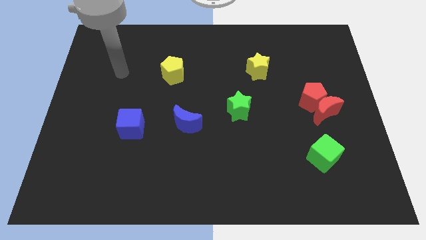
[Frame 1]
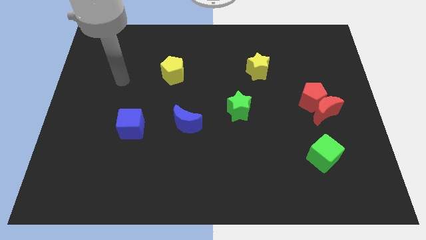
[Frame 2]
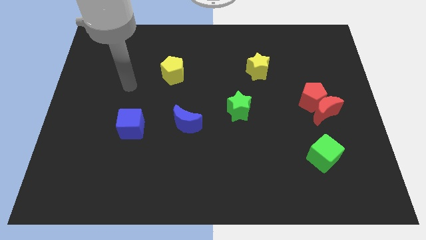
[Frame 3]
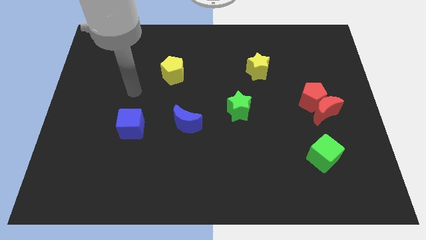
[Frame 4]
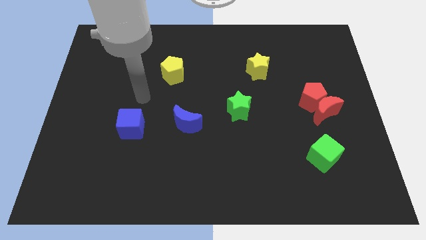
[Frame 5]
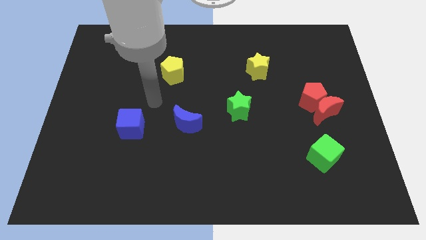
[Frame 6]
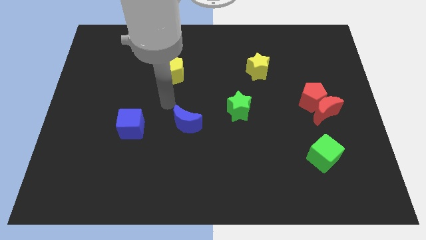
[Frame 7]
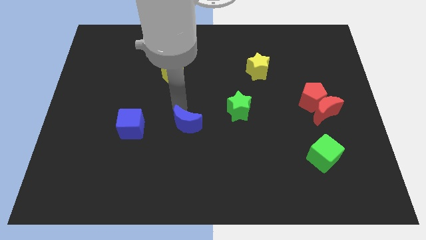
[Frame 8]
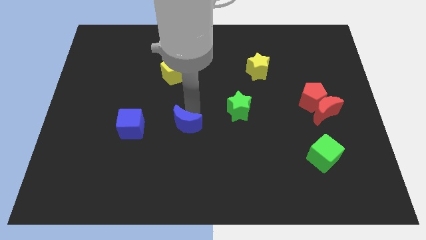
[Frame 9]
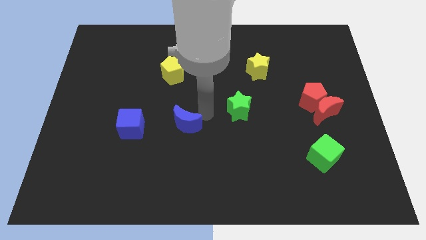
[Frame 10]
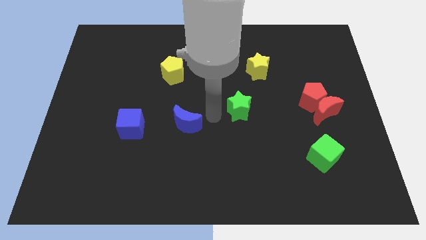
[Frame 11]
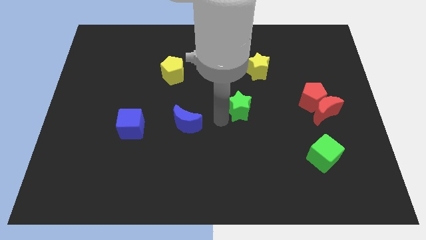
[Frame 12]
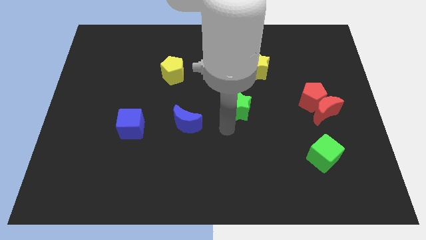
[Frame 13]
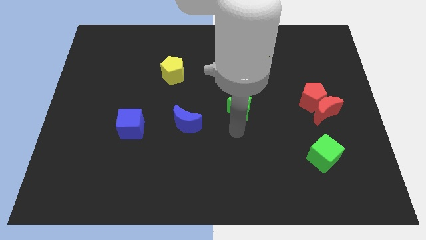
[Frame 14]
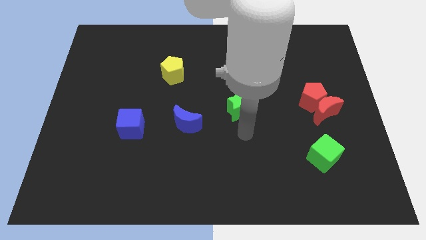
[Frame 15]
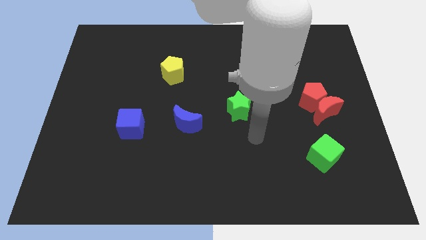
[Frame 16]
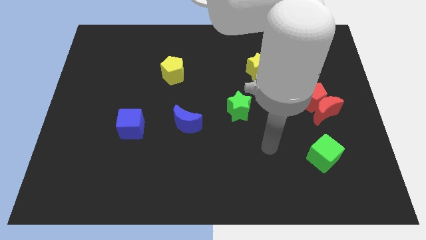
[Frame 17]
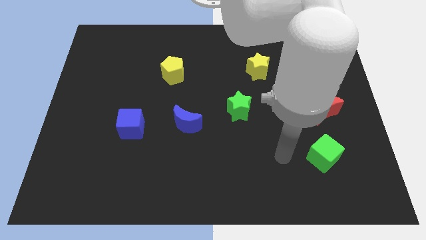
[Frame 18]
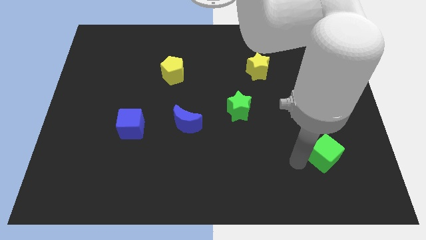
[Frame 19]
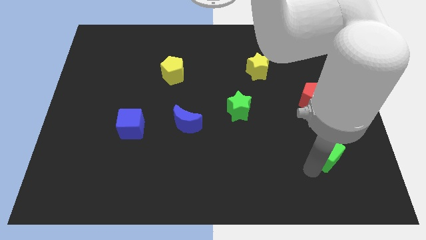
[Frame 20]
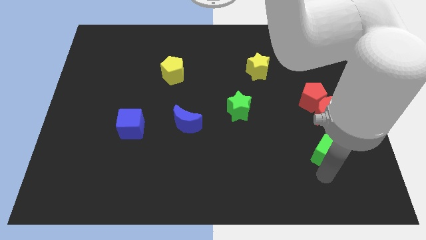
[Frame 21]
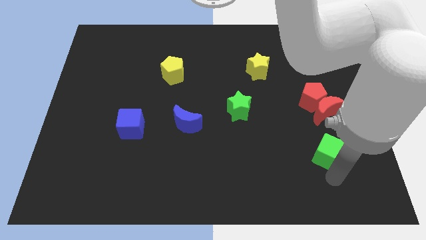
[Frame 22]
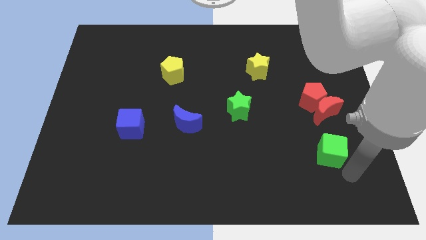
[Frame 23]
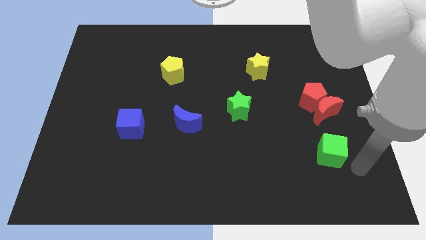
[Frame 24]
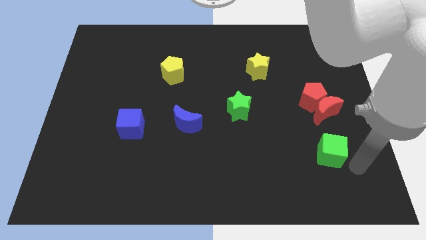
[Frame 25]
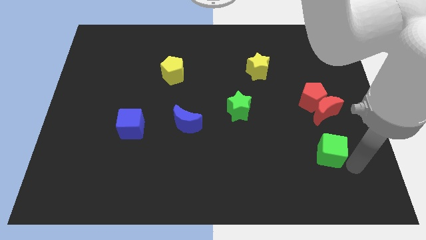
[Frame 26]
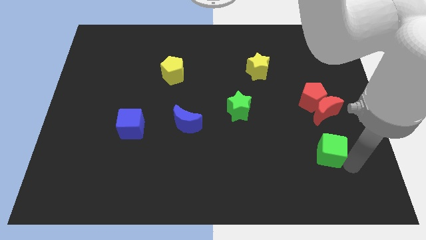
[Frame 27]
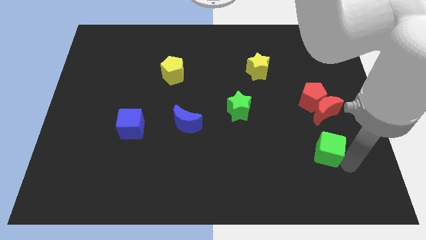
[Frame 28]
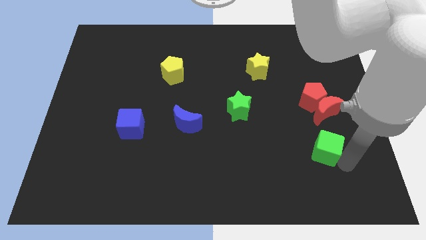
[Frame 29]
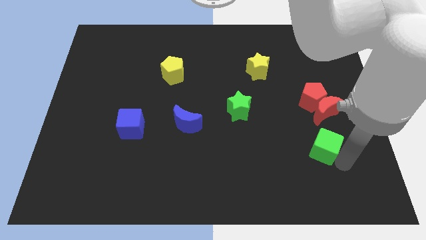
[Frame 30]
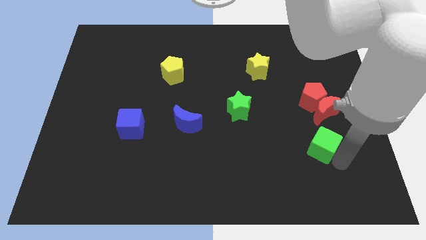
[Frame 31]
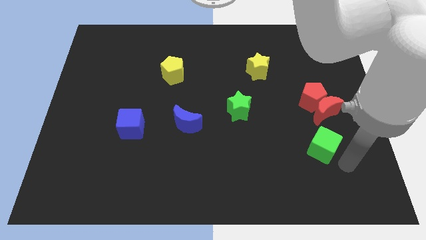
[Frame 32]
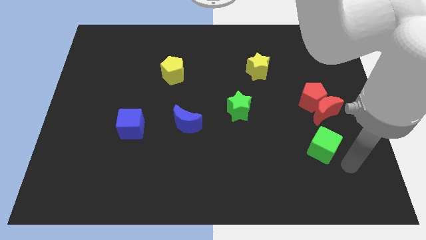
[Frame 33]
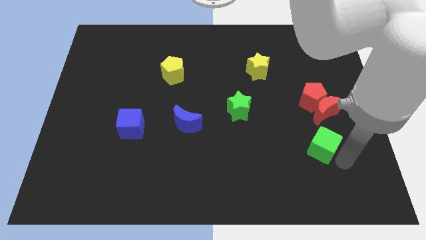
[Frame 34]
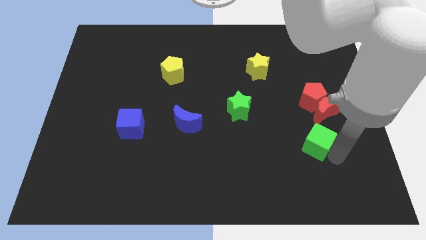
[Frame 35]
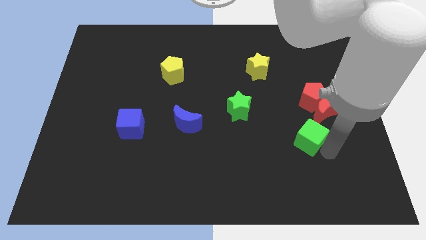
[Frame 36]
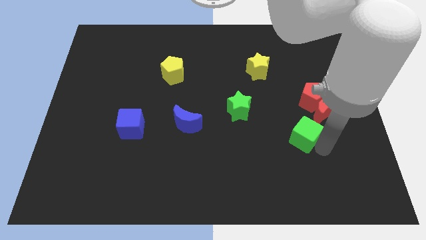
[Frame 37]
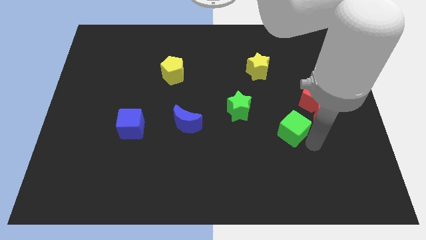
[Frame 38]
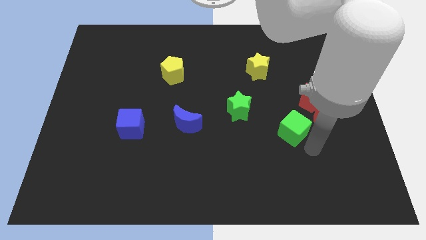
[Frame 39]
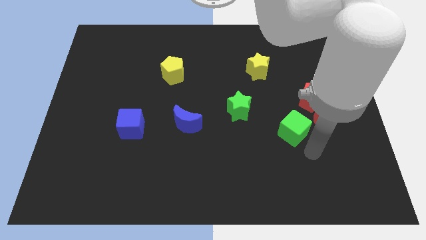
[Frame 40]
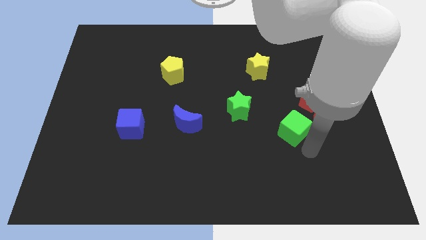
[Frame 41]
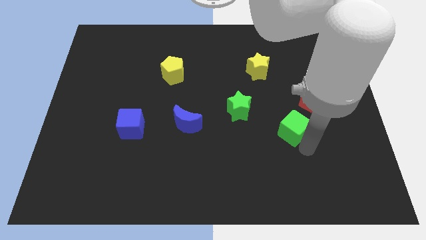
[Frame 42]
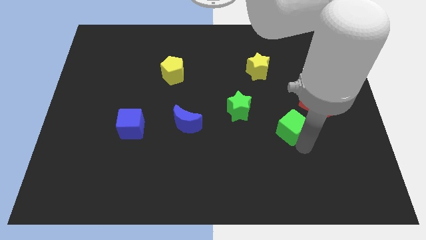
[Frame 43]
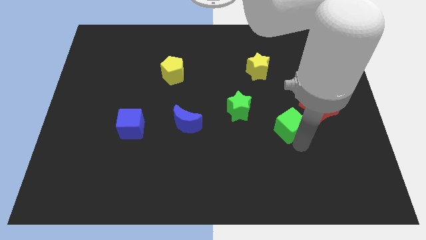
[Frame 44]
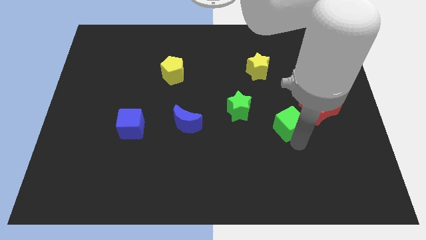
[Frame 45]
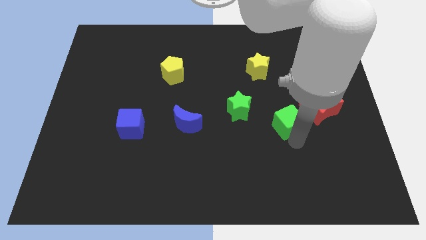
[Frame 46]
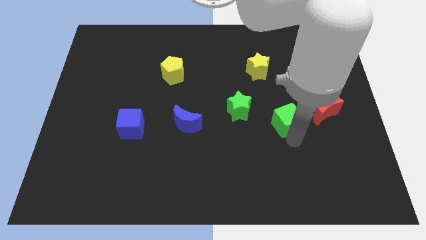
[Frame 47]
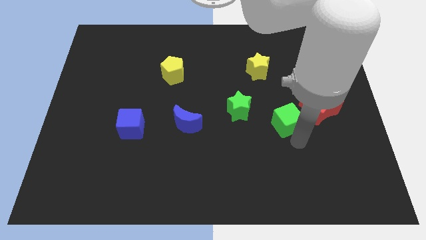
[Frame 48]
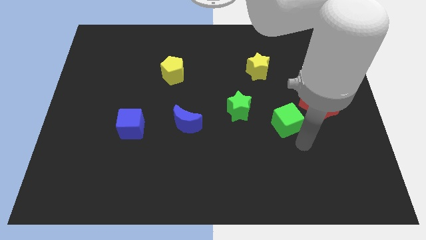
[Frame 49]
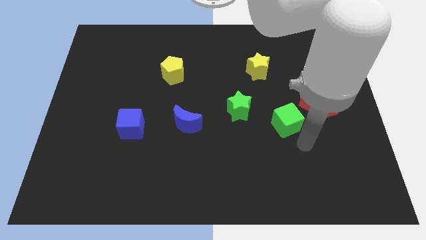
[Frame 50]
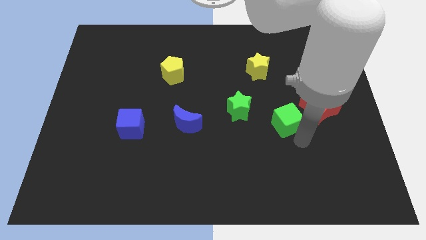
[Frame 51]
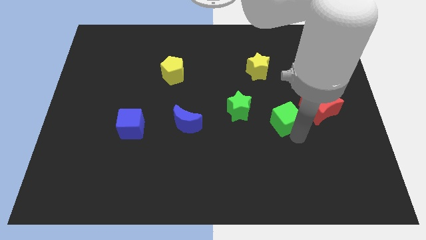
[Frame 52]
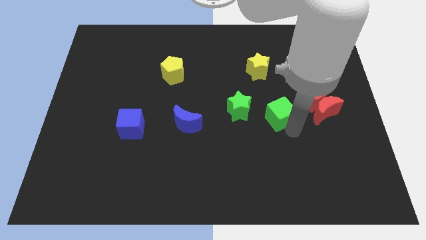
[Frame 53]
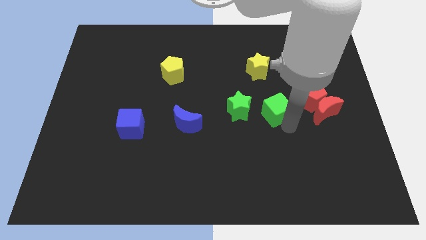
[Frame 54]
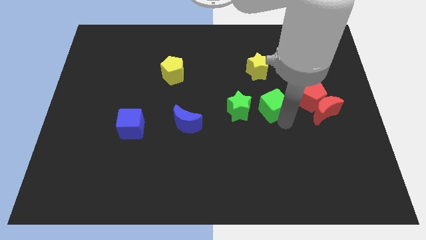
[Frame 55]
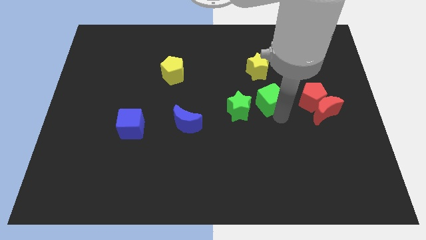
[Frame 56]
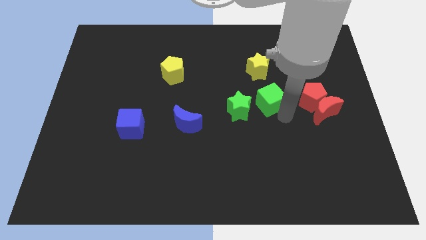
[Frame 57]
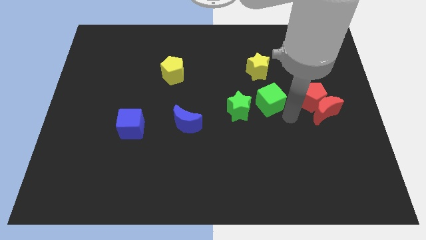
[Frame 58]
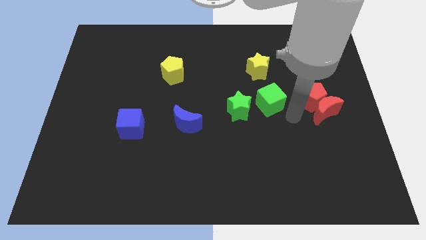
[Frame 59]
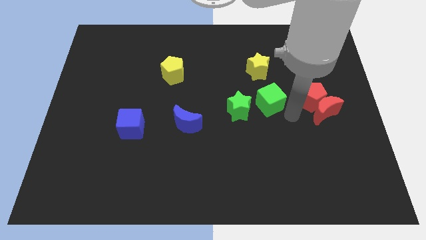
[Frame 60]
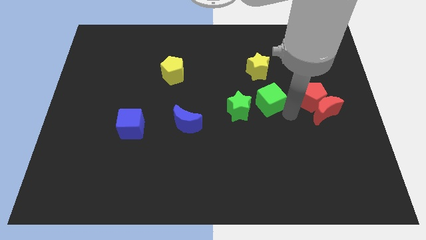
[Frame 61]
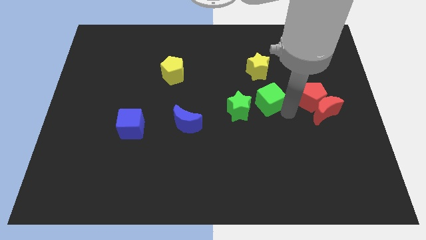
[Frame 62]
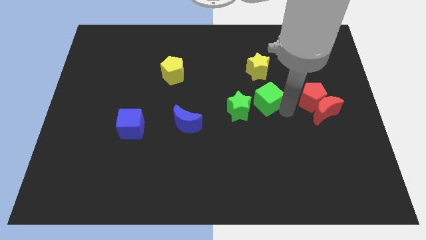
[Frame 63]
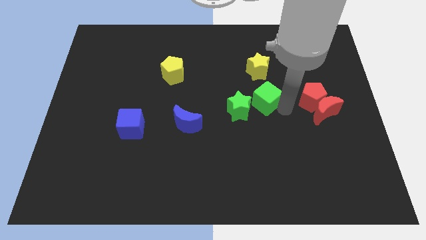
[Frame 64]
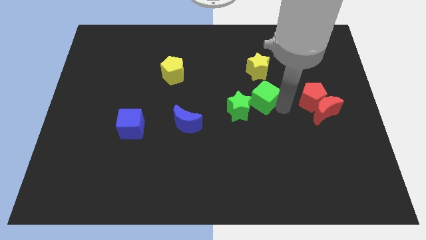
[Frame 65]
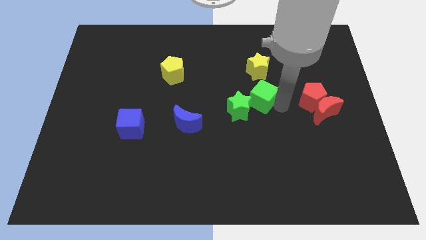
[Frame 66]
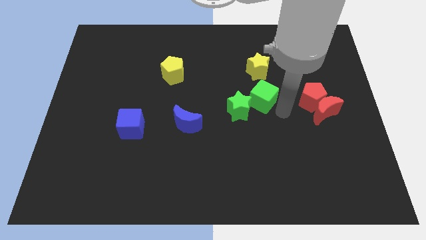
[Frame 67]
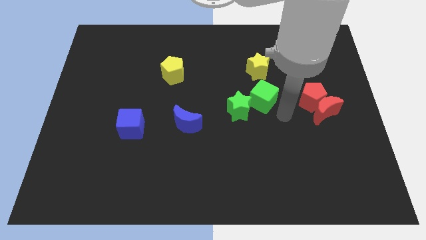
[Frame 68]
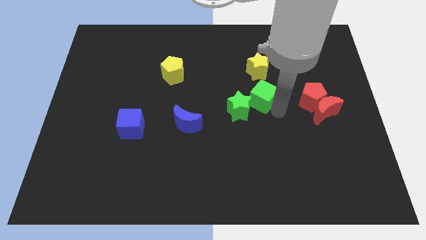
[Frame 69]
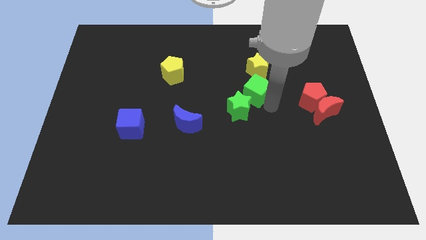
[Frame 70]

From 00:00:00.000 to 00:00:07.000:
push the green cube up and to the left

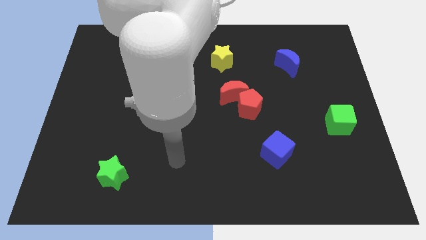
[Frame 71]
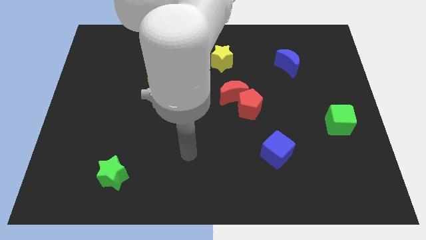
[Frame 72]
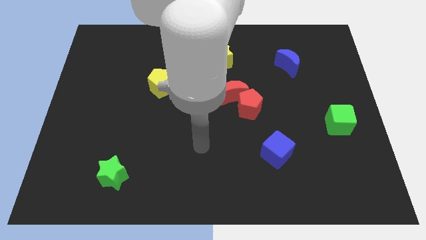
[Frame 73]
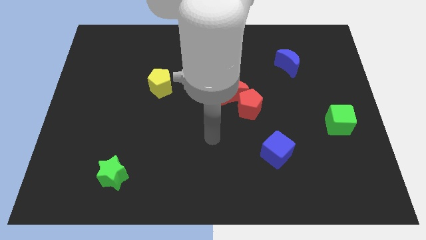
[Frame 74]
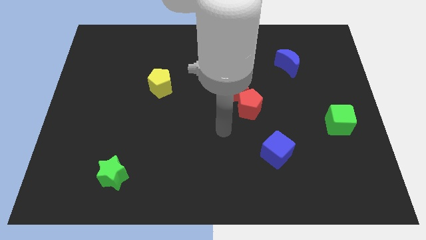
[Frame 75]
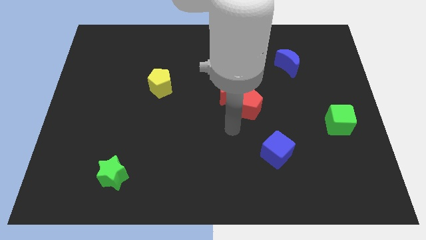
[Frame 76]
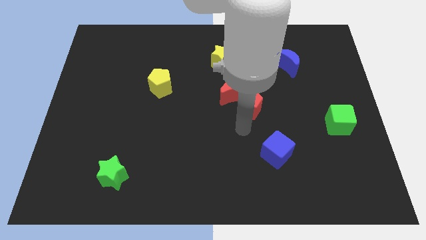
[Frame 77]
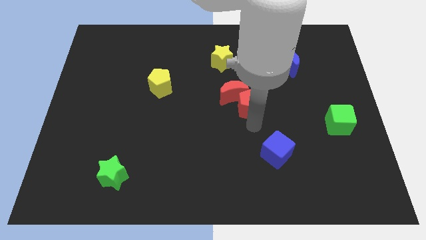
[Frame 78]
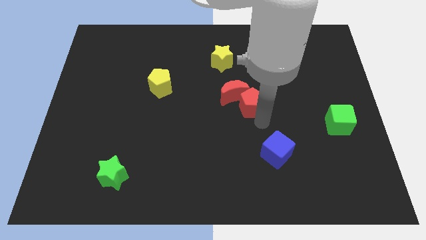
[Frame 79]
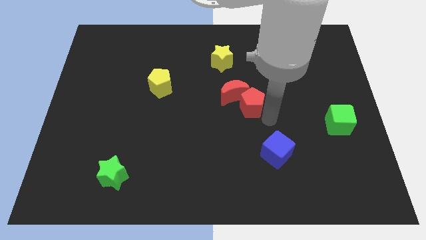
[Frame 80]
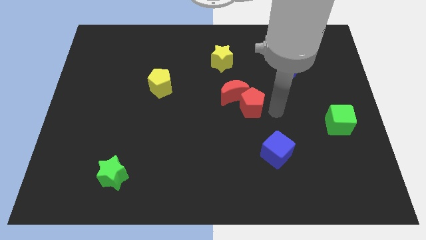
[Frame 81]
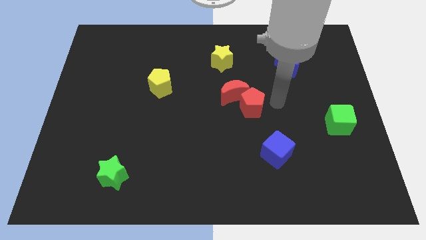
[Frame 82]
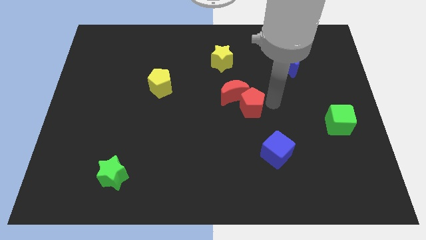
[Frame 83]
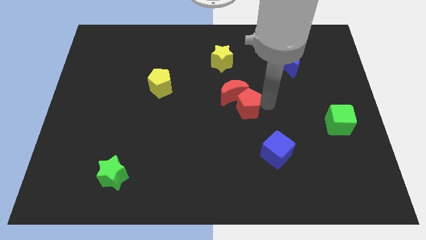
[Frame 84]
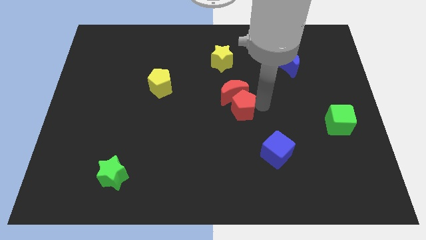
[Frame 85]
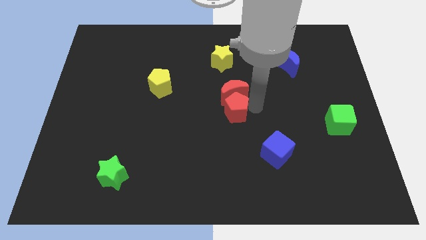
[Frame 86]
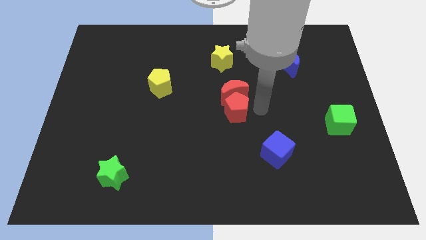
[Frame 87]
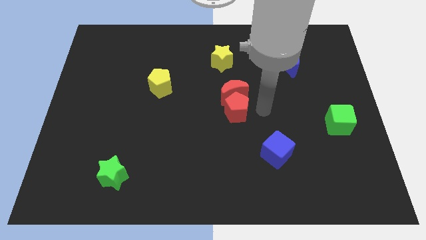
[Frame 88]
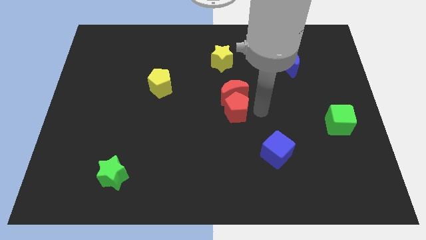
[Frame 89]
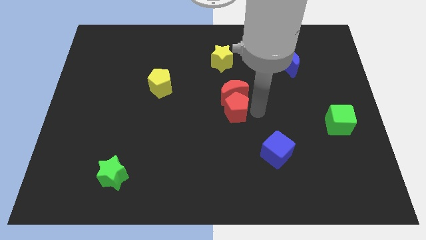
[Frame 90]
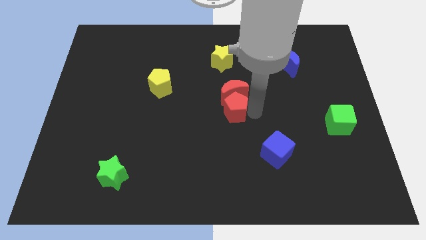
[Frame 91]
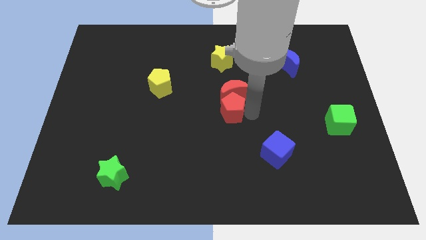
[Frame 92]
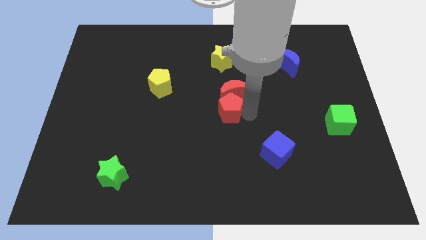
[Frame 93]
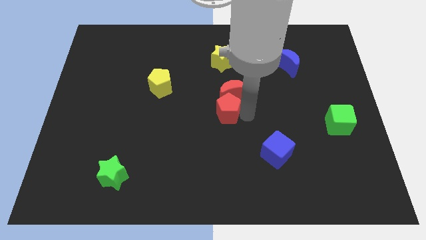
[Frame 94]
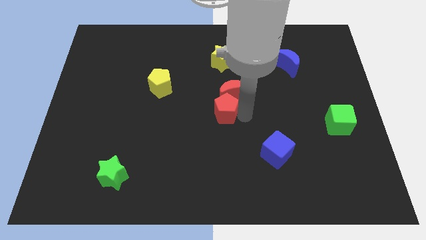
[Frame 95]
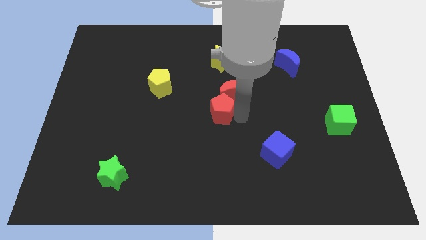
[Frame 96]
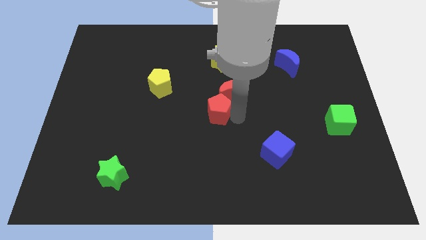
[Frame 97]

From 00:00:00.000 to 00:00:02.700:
slide the red pentagon a little bit to the left
